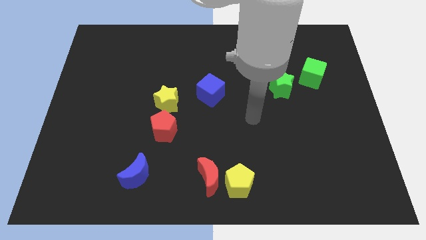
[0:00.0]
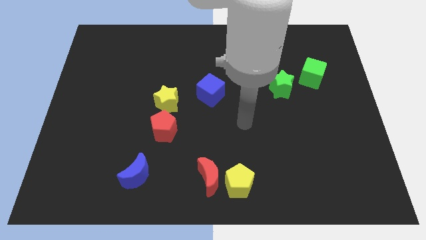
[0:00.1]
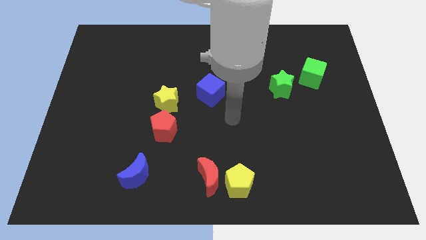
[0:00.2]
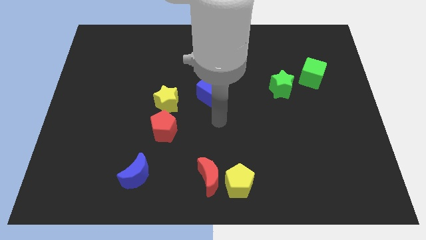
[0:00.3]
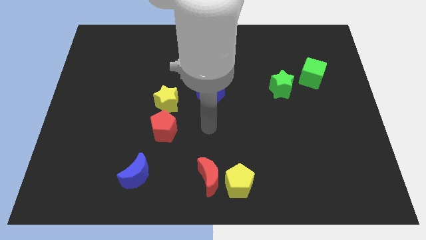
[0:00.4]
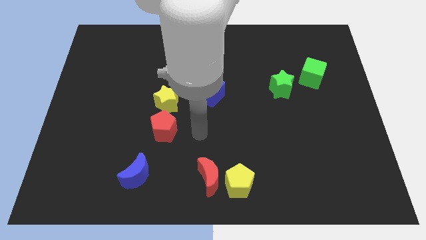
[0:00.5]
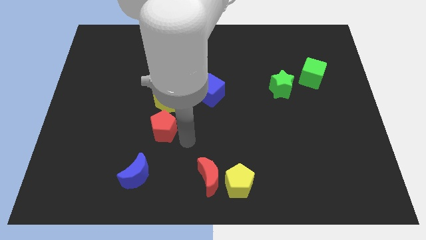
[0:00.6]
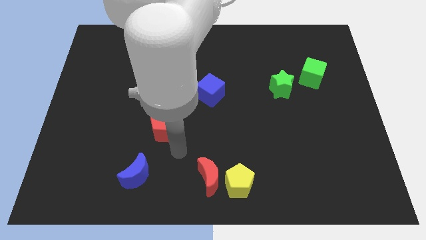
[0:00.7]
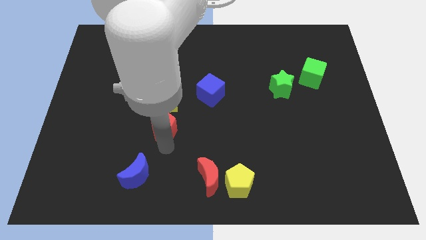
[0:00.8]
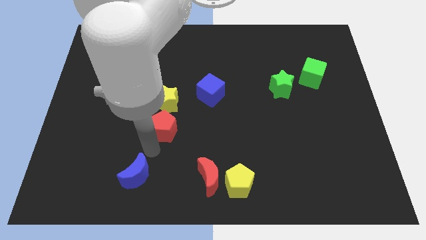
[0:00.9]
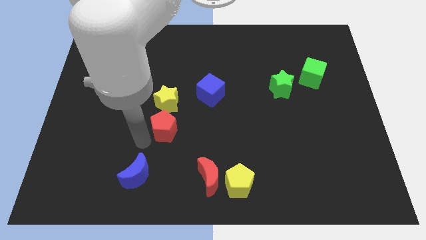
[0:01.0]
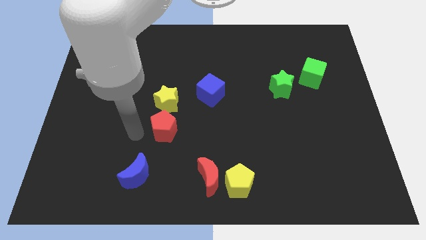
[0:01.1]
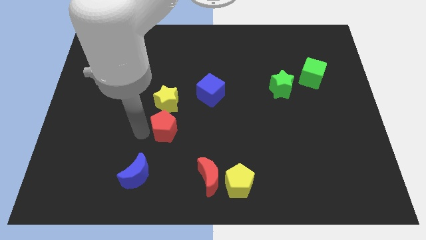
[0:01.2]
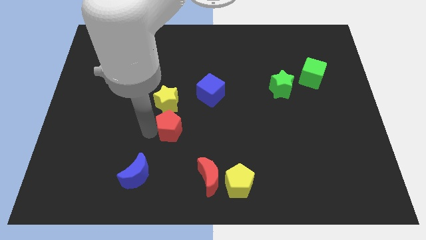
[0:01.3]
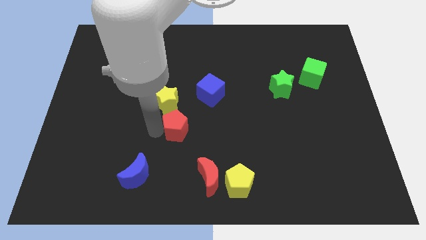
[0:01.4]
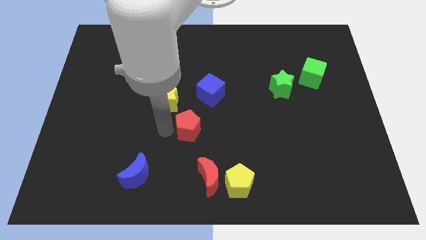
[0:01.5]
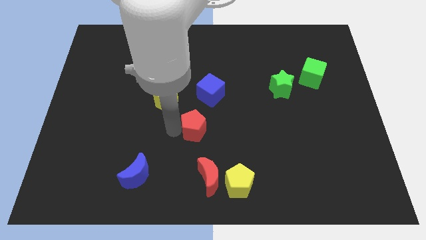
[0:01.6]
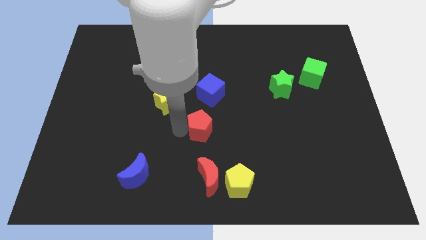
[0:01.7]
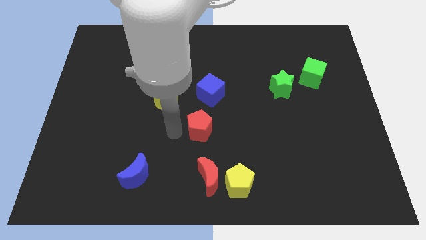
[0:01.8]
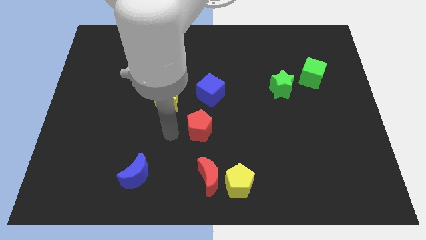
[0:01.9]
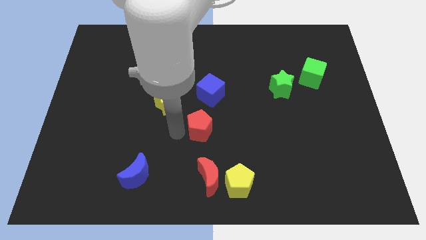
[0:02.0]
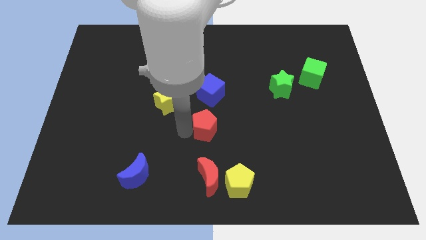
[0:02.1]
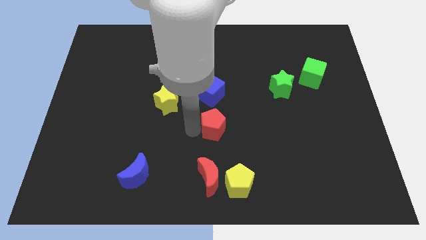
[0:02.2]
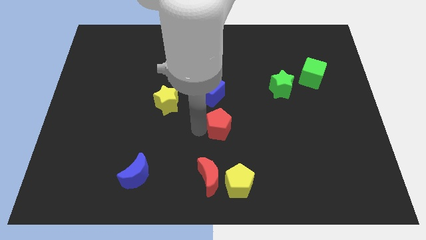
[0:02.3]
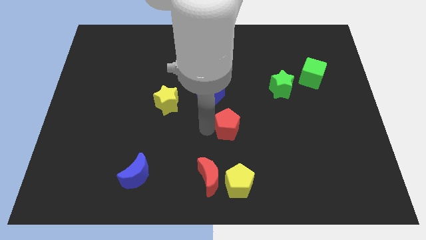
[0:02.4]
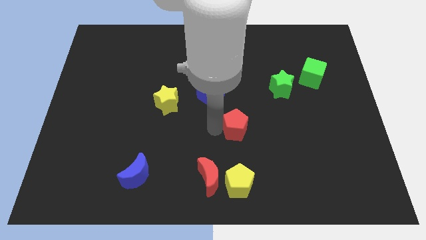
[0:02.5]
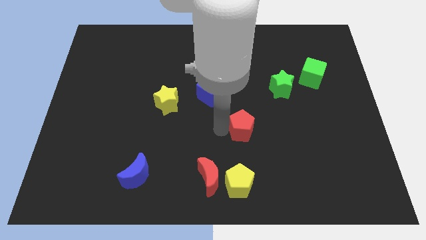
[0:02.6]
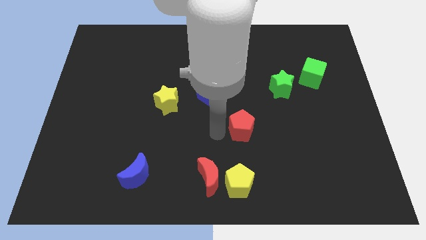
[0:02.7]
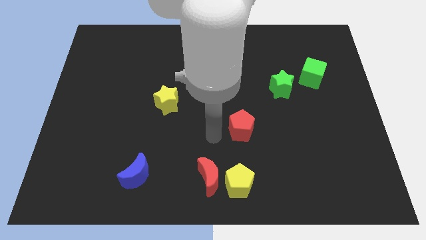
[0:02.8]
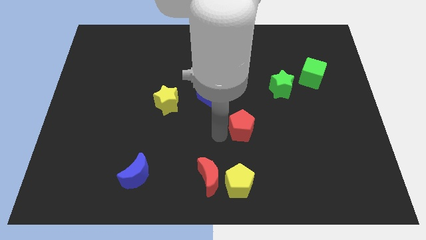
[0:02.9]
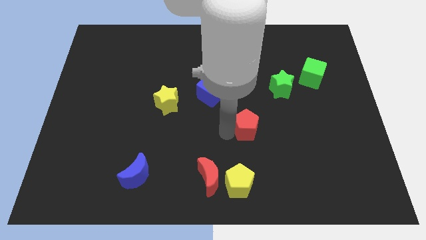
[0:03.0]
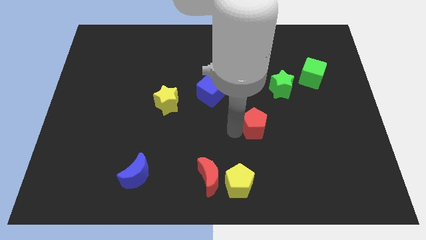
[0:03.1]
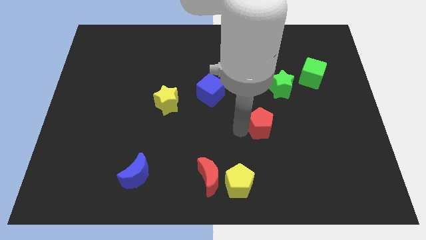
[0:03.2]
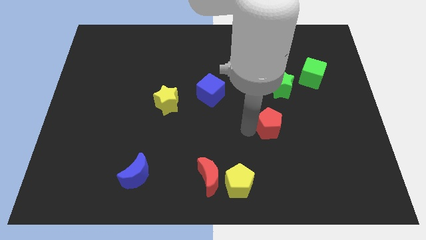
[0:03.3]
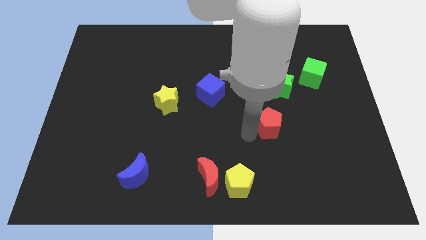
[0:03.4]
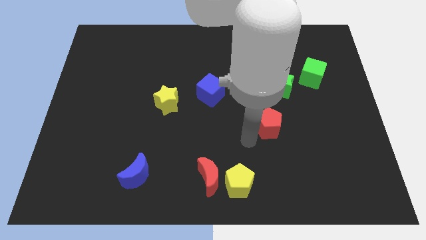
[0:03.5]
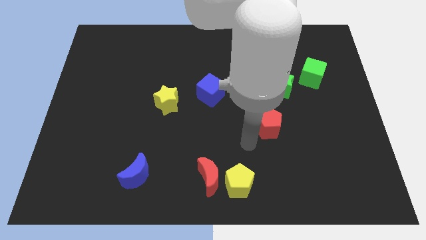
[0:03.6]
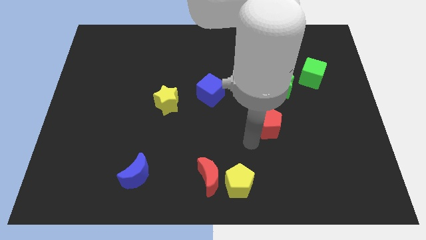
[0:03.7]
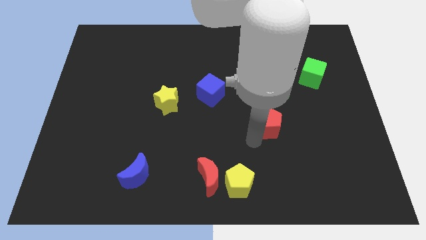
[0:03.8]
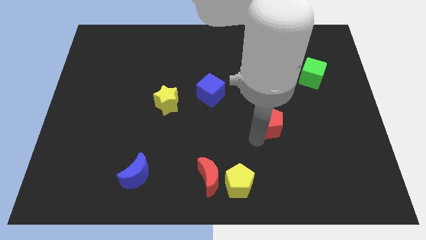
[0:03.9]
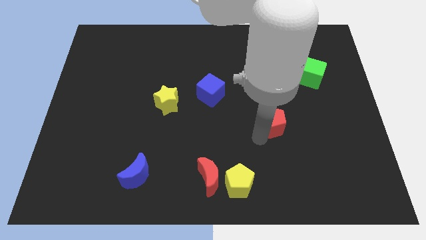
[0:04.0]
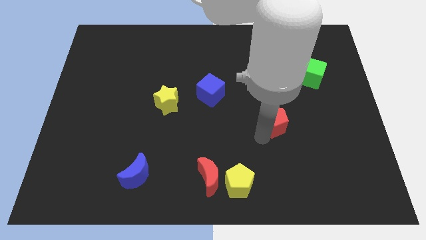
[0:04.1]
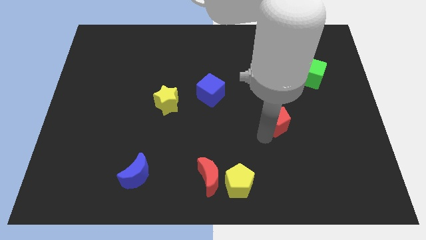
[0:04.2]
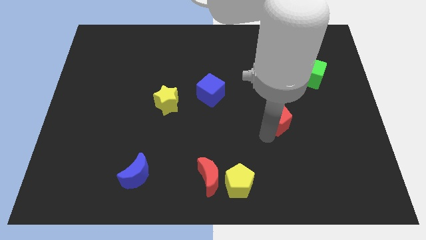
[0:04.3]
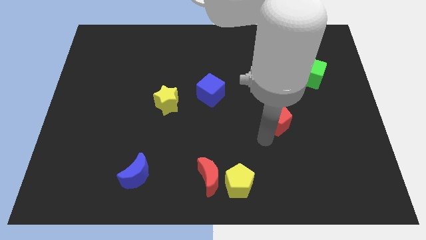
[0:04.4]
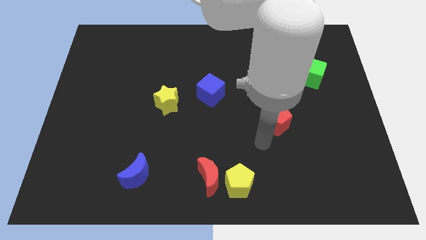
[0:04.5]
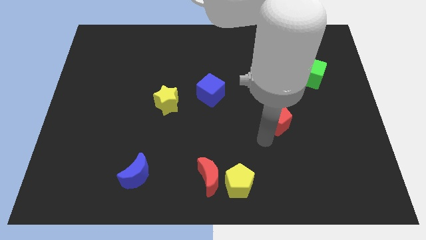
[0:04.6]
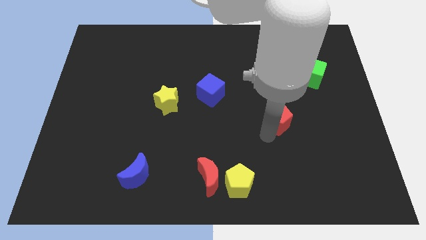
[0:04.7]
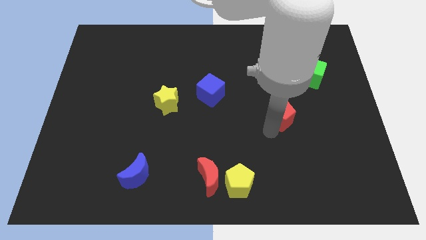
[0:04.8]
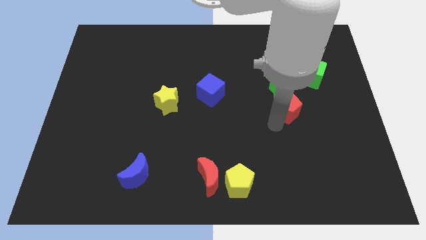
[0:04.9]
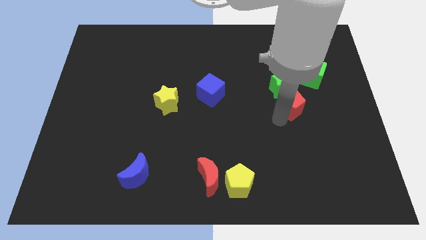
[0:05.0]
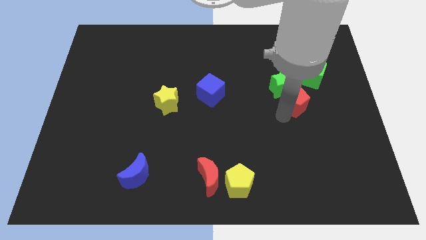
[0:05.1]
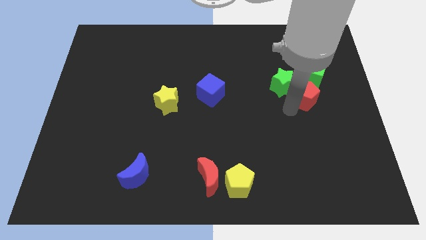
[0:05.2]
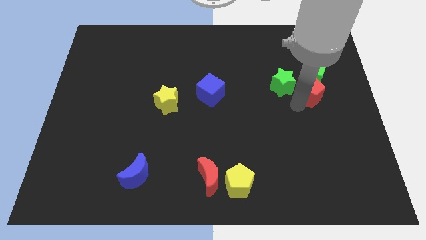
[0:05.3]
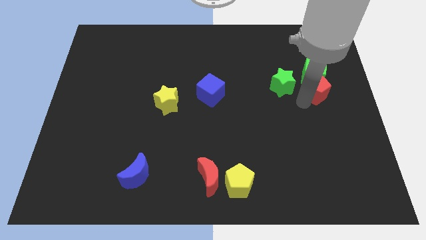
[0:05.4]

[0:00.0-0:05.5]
move the red pentagon towards the green cube

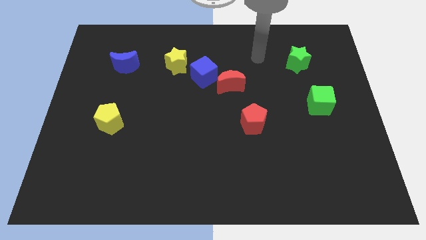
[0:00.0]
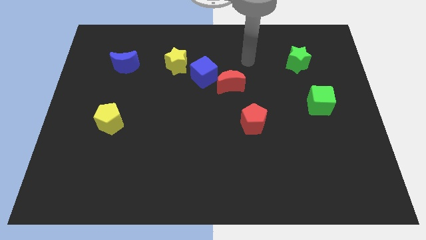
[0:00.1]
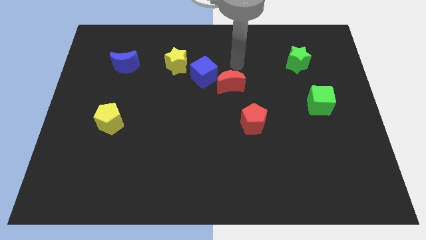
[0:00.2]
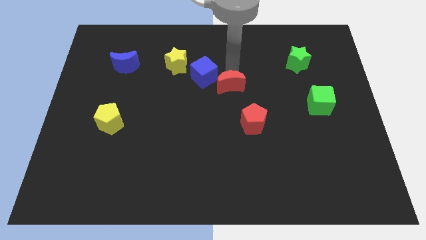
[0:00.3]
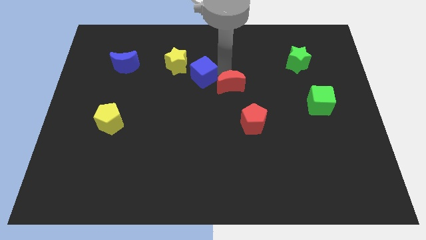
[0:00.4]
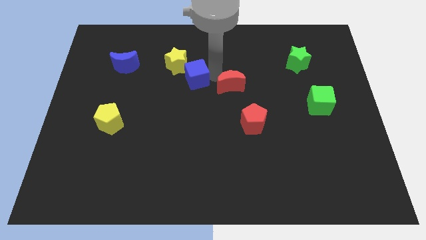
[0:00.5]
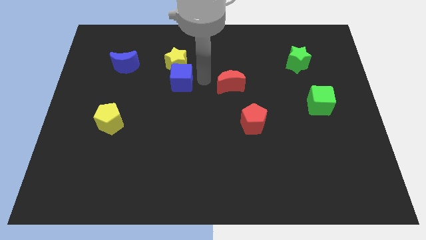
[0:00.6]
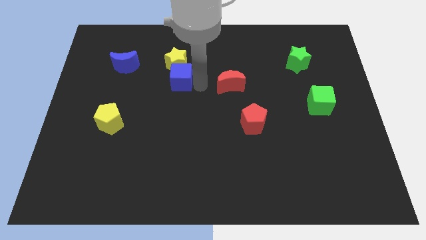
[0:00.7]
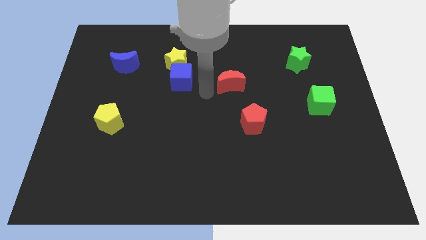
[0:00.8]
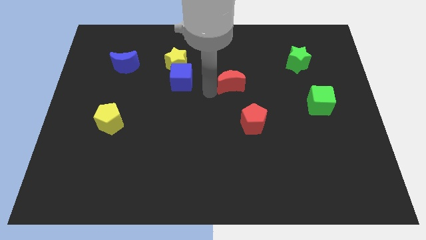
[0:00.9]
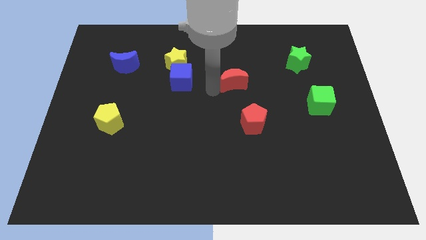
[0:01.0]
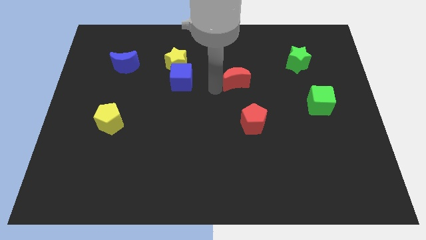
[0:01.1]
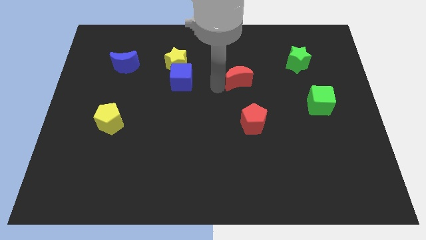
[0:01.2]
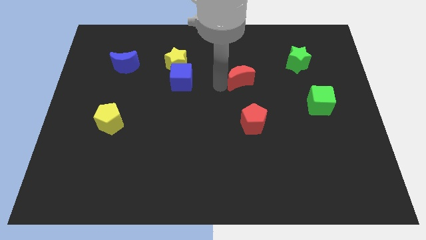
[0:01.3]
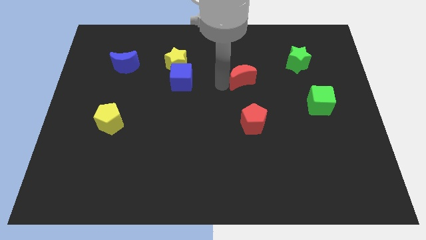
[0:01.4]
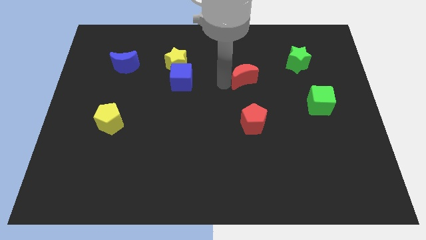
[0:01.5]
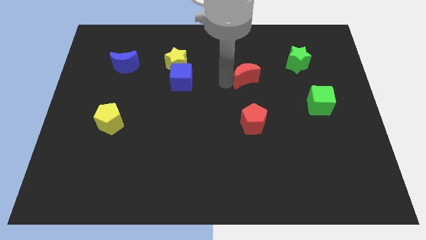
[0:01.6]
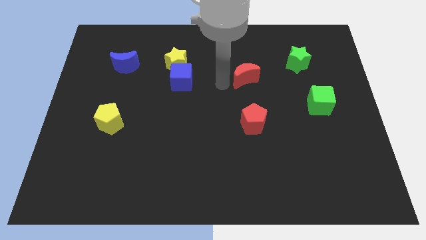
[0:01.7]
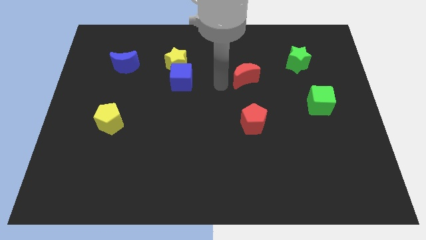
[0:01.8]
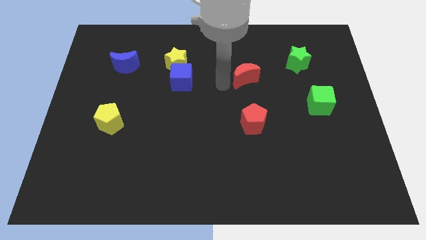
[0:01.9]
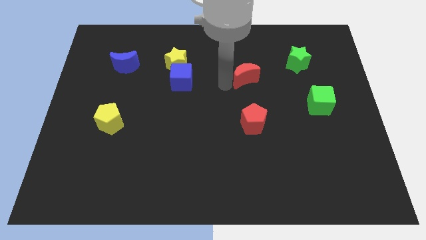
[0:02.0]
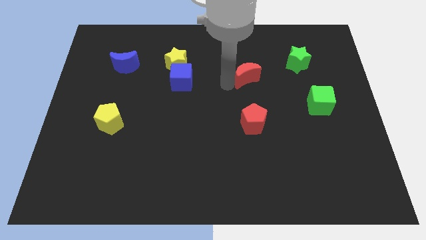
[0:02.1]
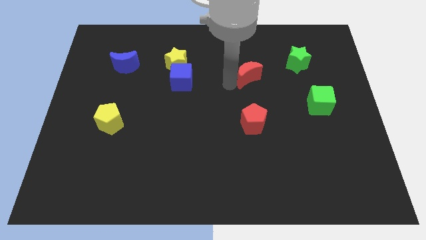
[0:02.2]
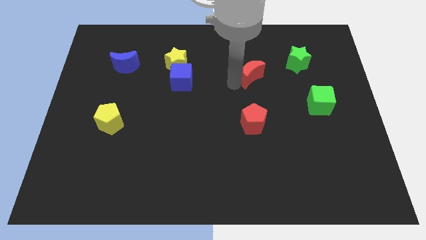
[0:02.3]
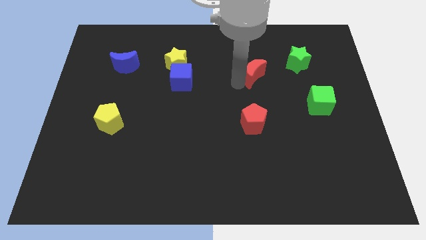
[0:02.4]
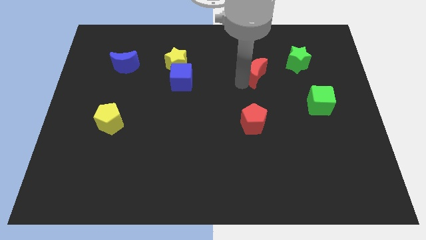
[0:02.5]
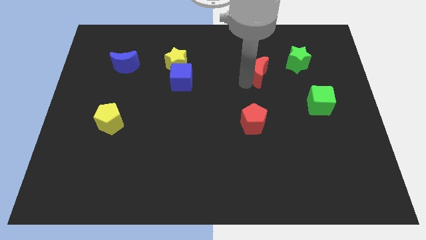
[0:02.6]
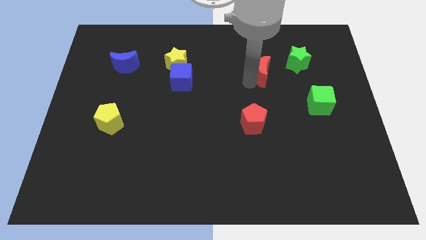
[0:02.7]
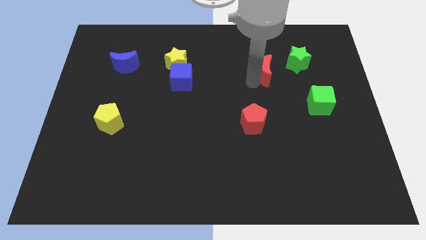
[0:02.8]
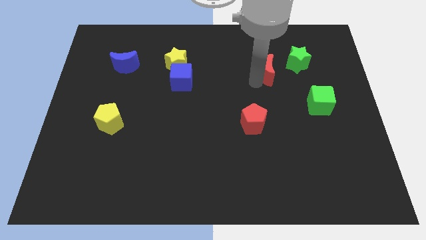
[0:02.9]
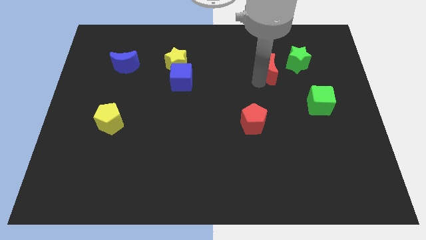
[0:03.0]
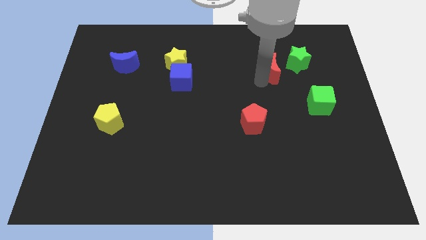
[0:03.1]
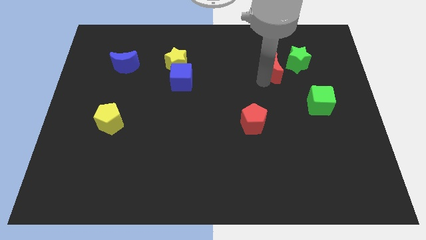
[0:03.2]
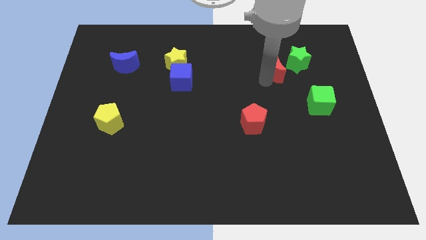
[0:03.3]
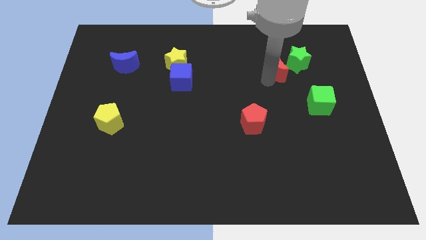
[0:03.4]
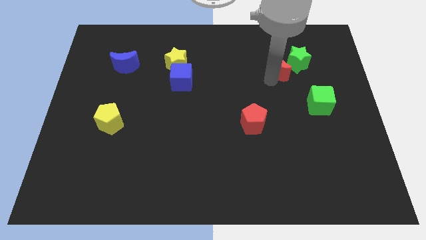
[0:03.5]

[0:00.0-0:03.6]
move the red moon close to the green star
